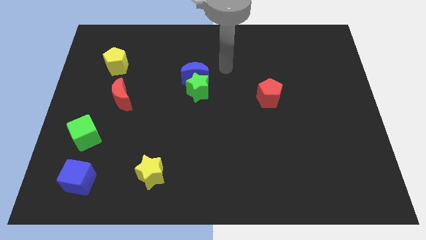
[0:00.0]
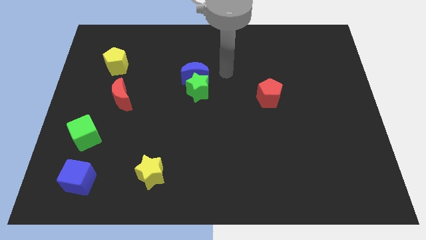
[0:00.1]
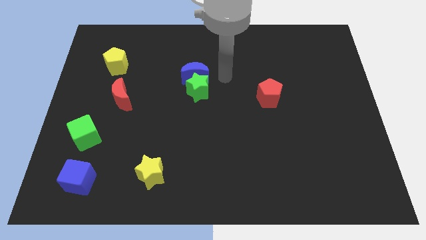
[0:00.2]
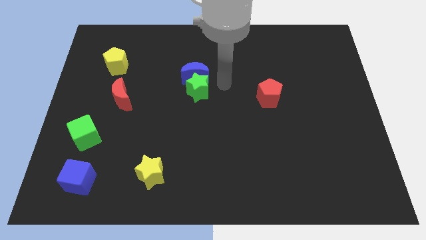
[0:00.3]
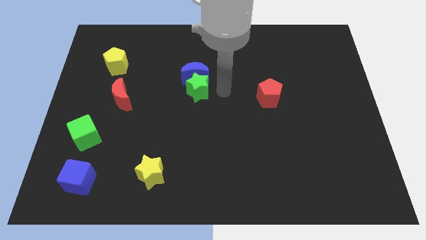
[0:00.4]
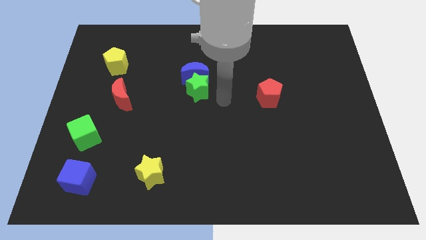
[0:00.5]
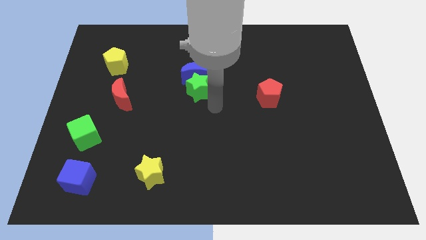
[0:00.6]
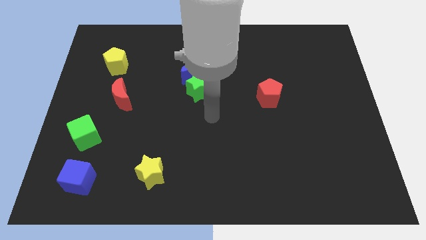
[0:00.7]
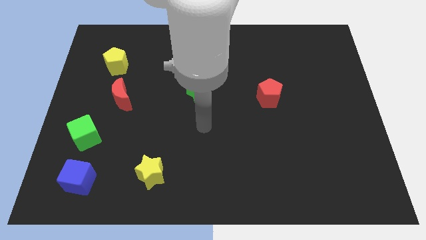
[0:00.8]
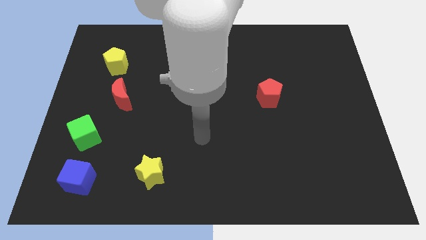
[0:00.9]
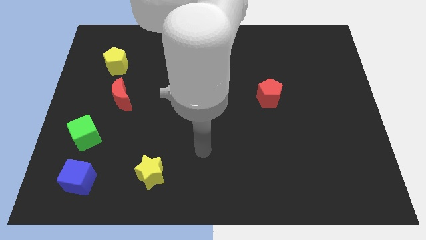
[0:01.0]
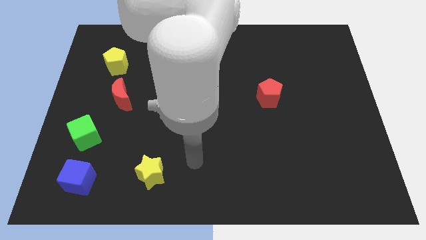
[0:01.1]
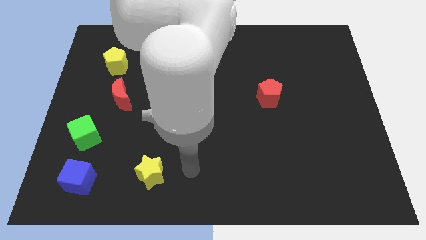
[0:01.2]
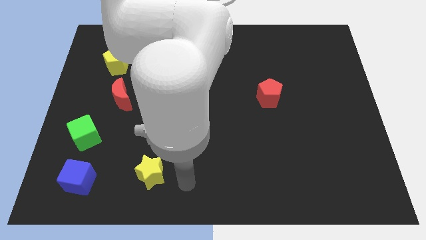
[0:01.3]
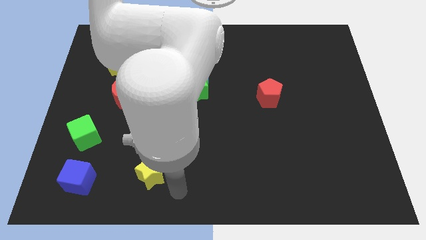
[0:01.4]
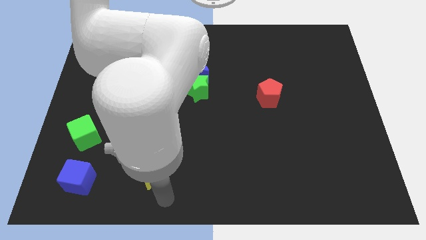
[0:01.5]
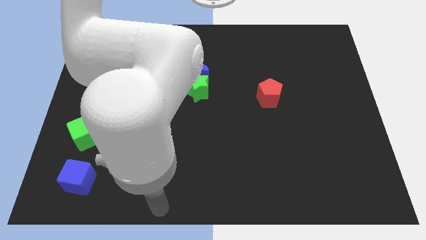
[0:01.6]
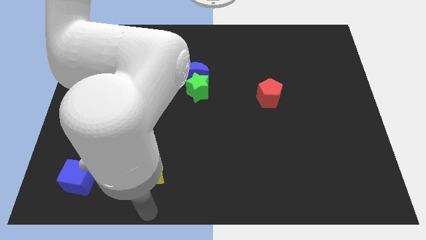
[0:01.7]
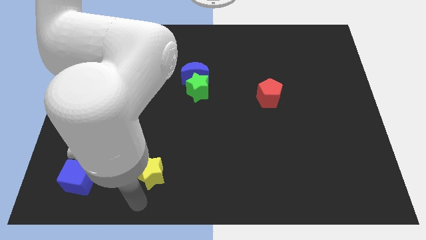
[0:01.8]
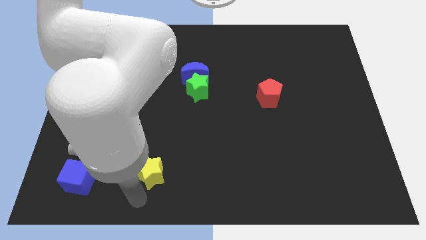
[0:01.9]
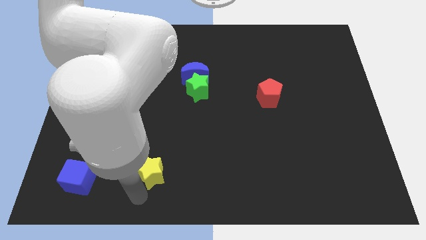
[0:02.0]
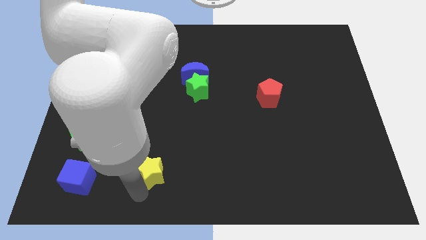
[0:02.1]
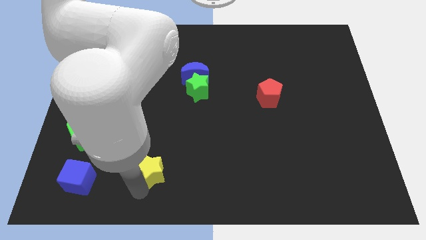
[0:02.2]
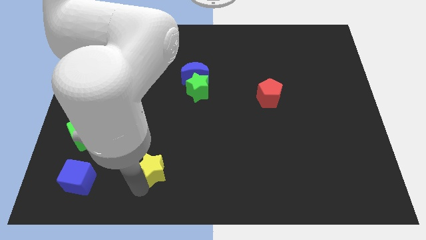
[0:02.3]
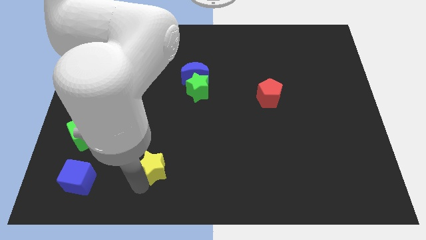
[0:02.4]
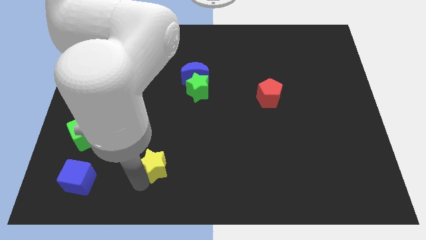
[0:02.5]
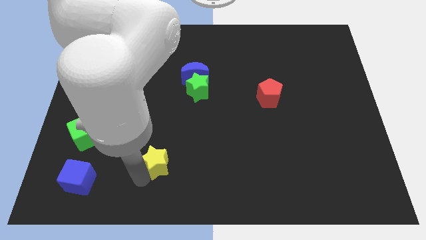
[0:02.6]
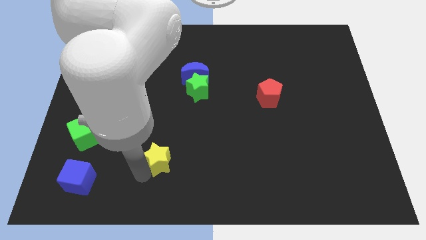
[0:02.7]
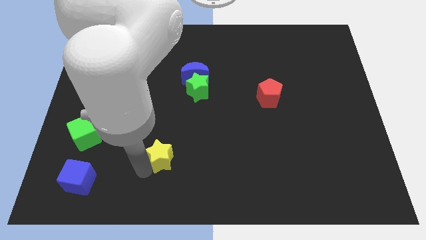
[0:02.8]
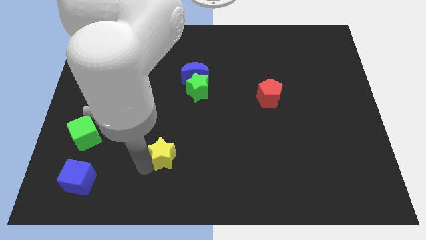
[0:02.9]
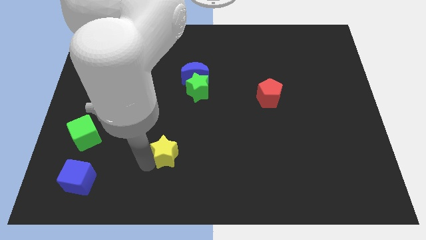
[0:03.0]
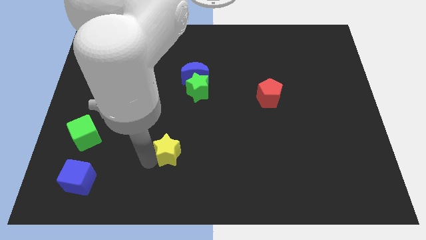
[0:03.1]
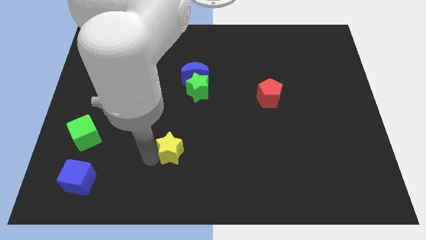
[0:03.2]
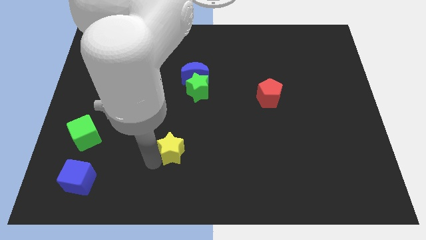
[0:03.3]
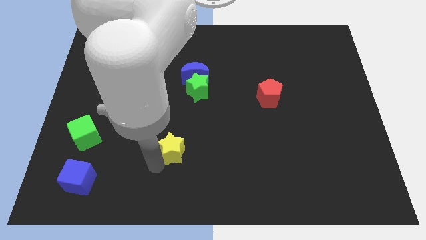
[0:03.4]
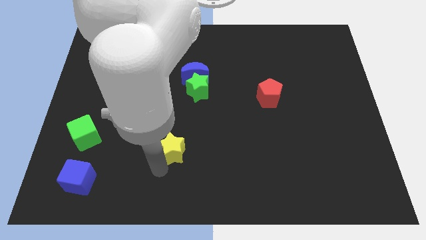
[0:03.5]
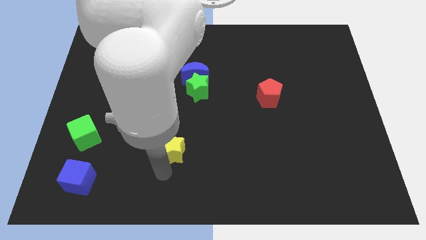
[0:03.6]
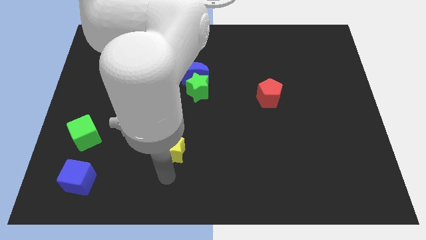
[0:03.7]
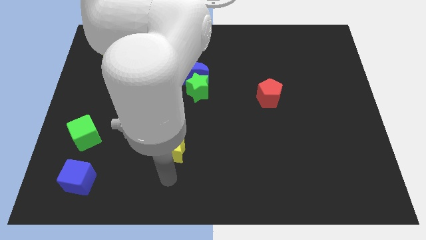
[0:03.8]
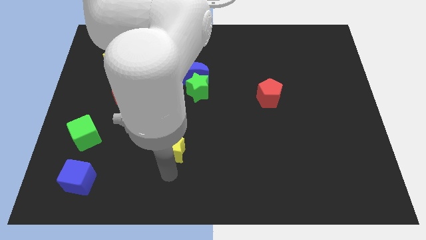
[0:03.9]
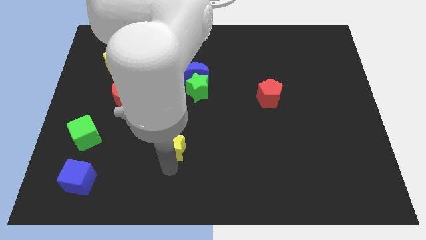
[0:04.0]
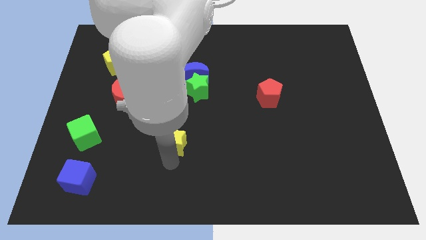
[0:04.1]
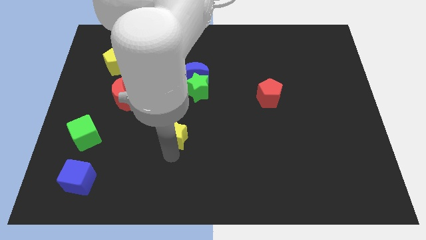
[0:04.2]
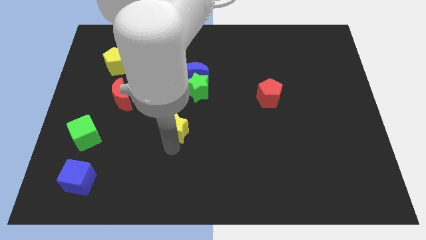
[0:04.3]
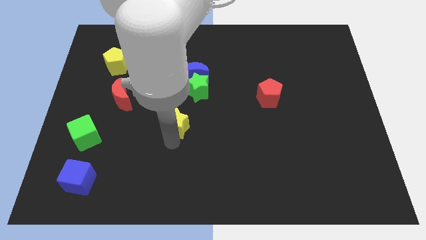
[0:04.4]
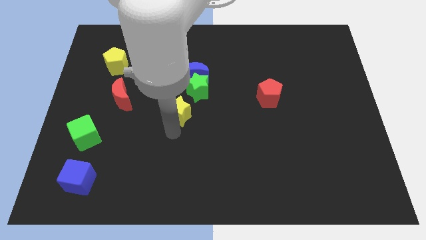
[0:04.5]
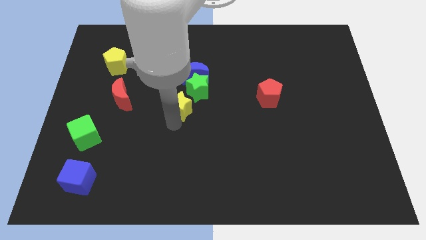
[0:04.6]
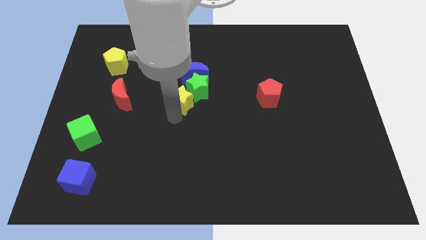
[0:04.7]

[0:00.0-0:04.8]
push the yellow star next to the green star

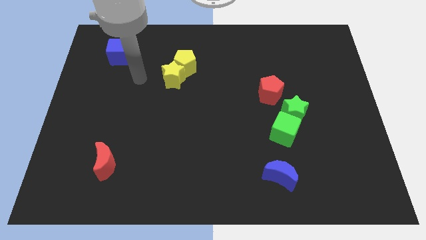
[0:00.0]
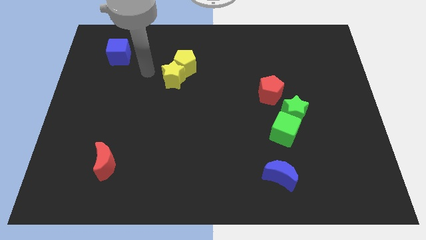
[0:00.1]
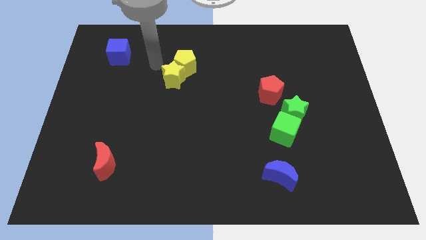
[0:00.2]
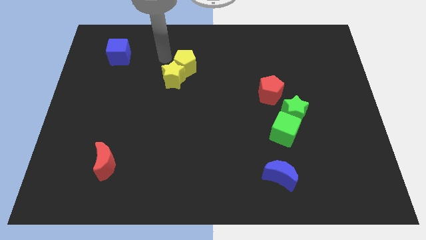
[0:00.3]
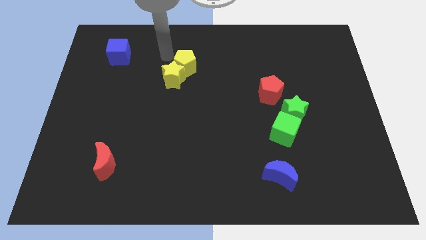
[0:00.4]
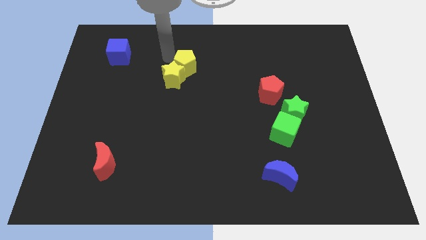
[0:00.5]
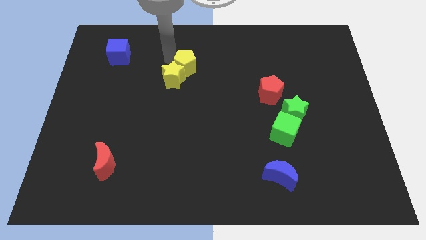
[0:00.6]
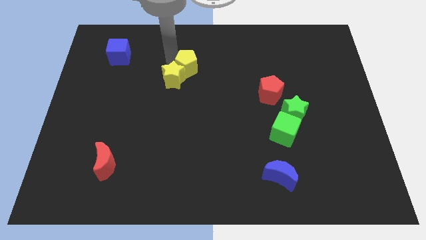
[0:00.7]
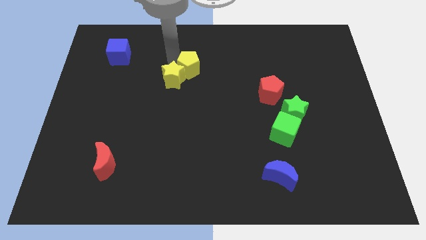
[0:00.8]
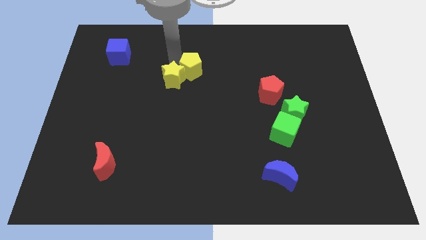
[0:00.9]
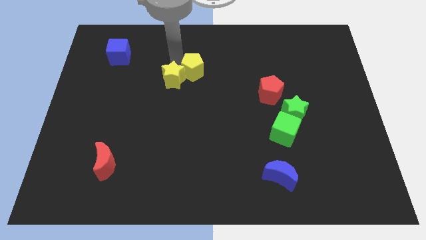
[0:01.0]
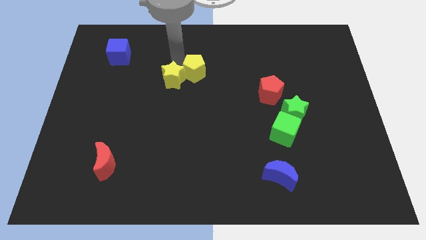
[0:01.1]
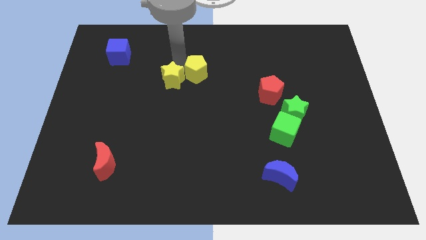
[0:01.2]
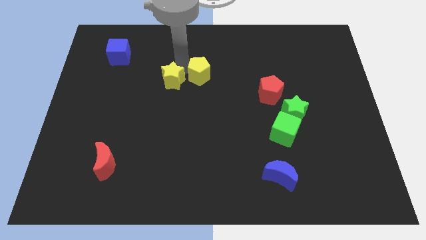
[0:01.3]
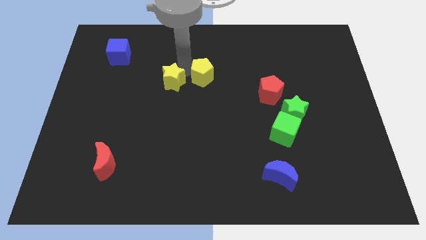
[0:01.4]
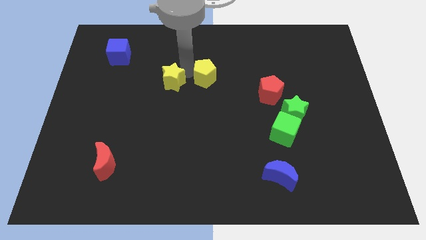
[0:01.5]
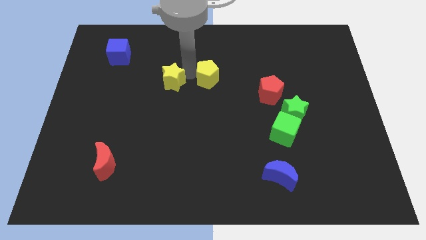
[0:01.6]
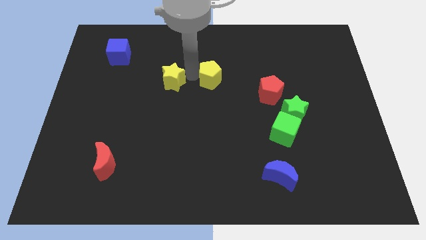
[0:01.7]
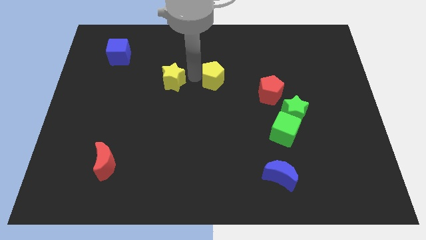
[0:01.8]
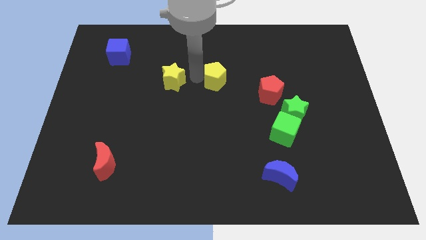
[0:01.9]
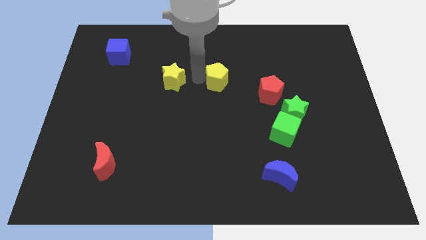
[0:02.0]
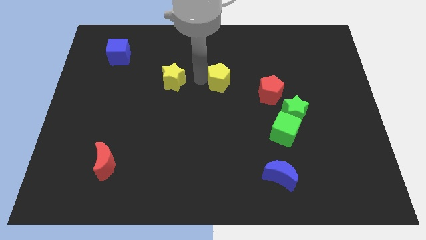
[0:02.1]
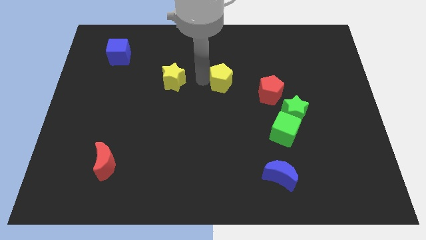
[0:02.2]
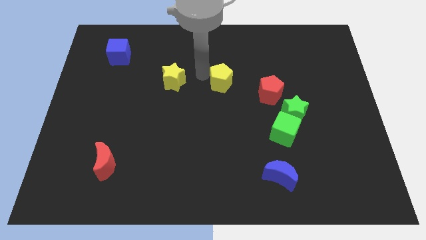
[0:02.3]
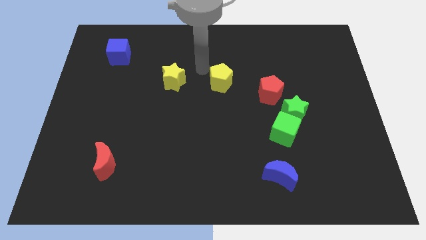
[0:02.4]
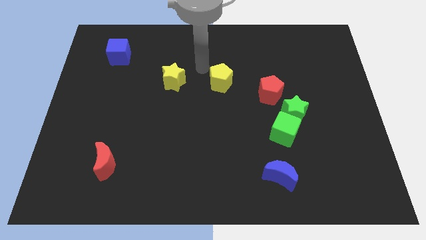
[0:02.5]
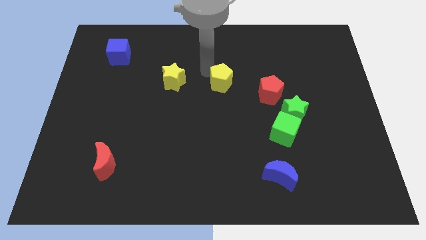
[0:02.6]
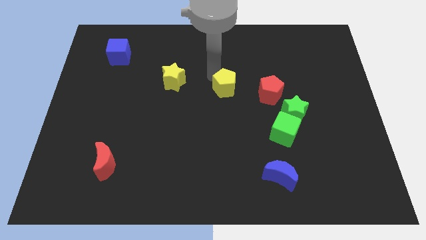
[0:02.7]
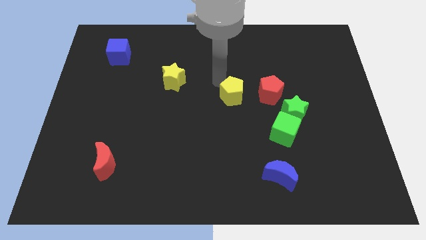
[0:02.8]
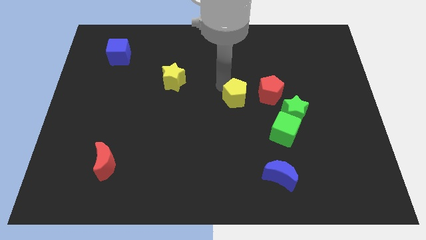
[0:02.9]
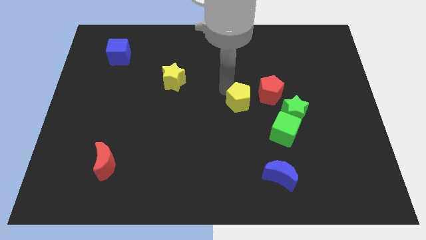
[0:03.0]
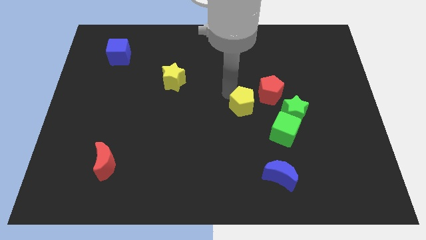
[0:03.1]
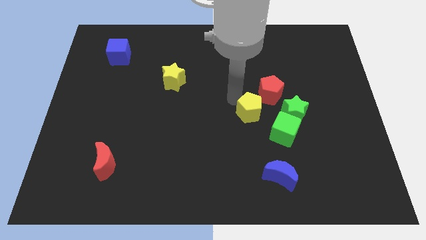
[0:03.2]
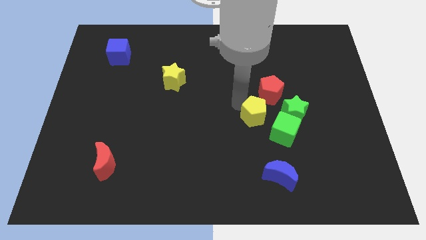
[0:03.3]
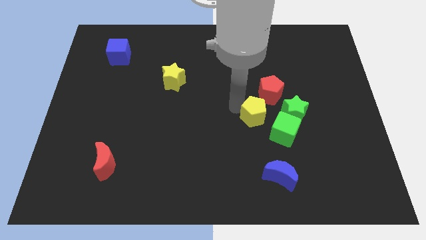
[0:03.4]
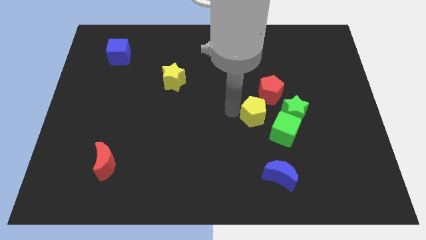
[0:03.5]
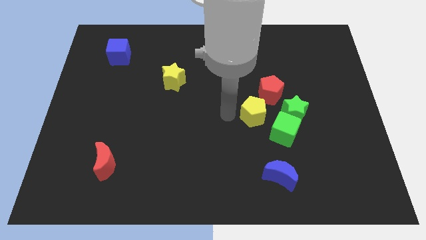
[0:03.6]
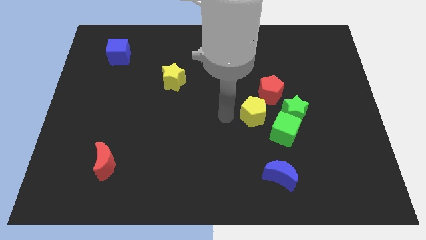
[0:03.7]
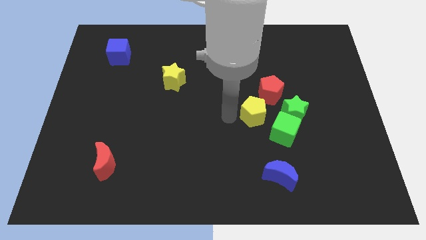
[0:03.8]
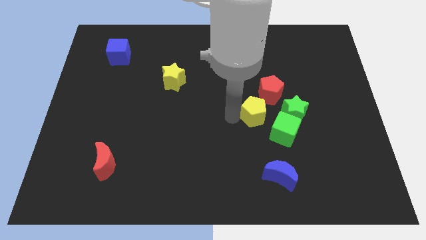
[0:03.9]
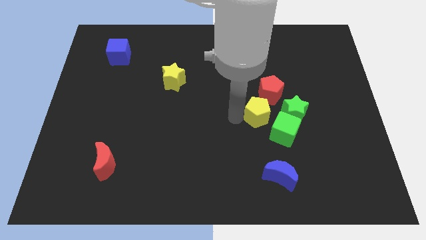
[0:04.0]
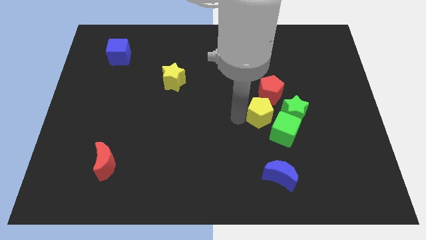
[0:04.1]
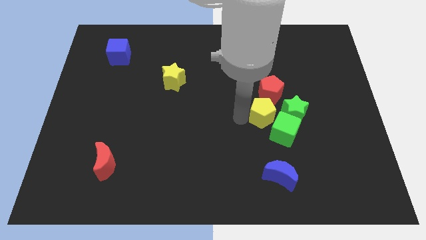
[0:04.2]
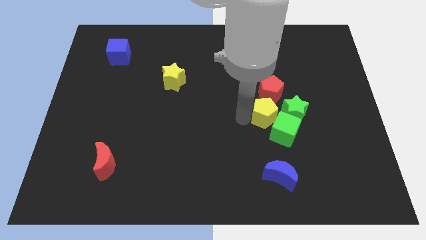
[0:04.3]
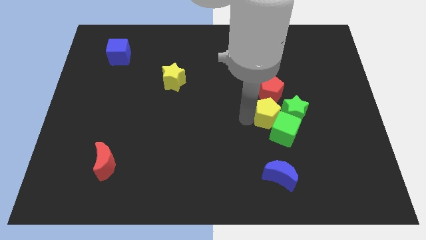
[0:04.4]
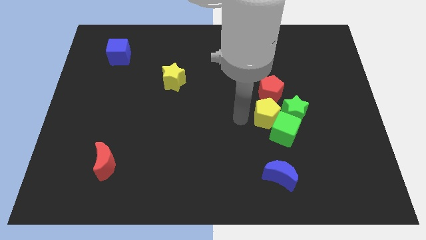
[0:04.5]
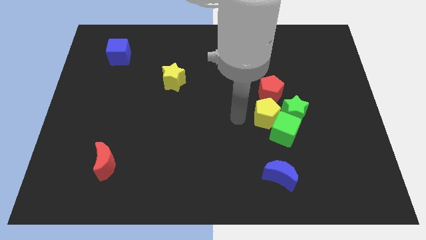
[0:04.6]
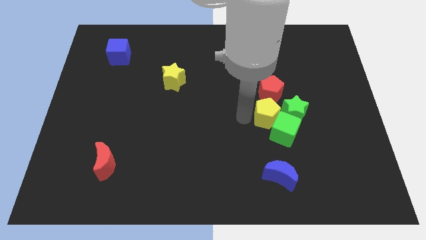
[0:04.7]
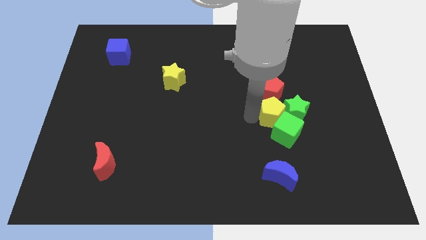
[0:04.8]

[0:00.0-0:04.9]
put the yellow pentagon to the green star
